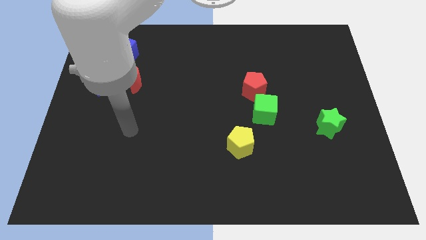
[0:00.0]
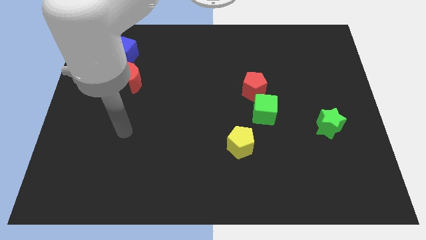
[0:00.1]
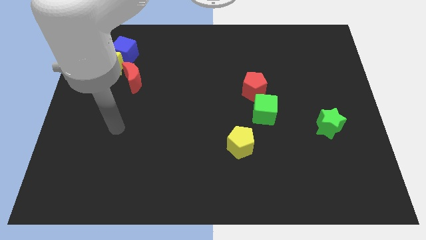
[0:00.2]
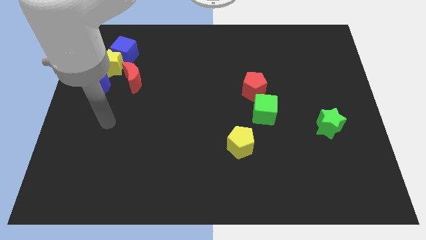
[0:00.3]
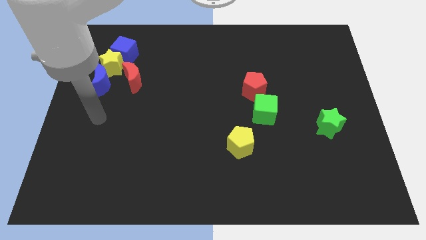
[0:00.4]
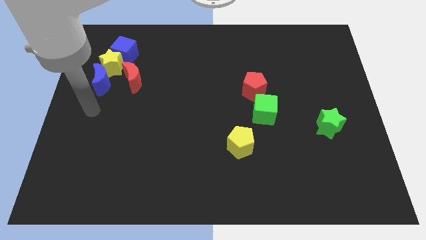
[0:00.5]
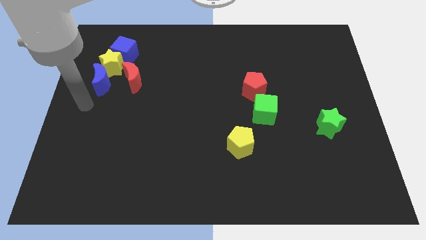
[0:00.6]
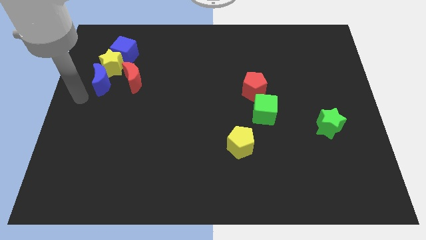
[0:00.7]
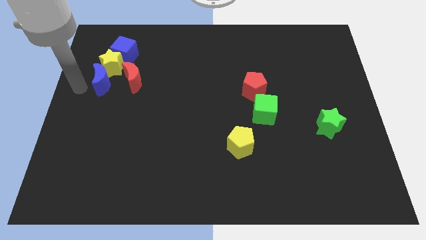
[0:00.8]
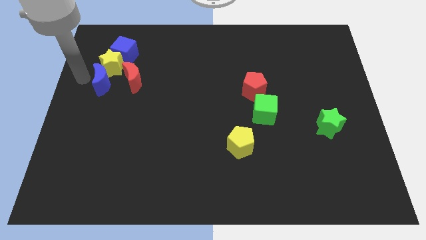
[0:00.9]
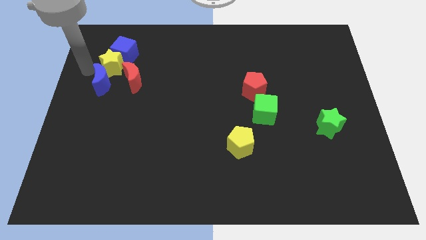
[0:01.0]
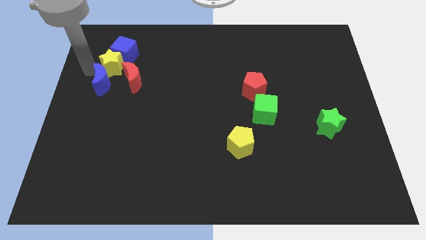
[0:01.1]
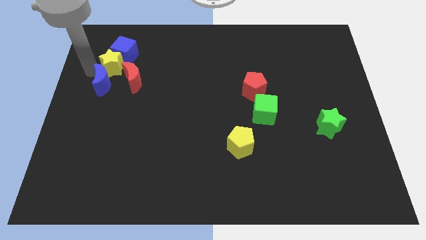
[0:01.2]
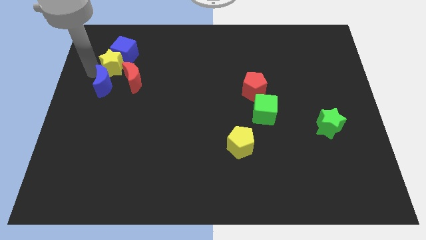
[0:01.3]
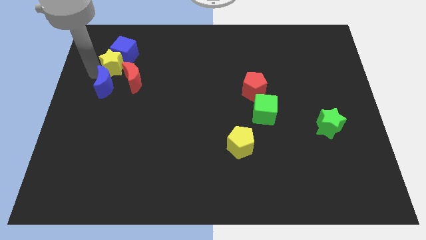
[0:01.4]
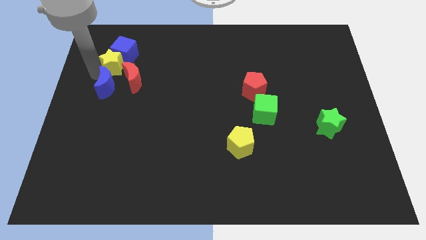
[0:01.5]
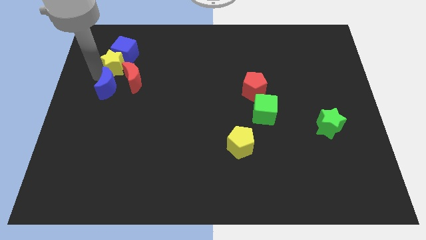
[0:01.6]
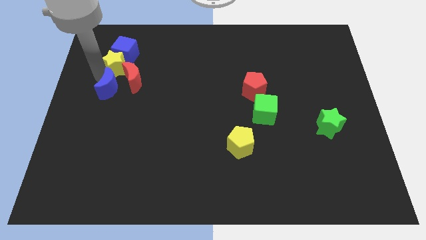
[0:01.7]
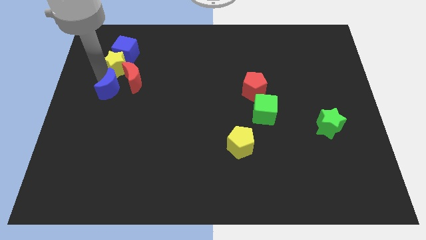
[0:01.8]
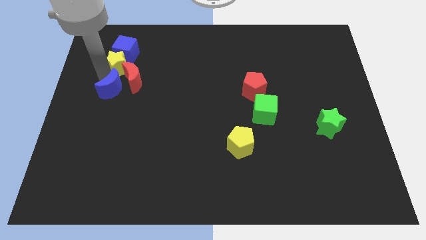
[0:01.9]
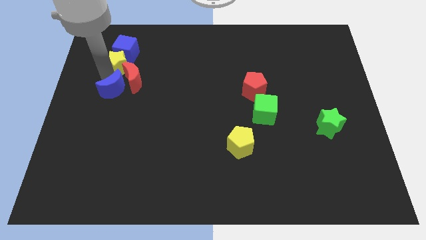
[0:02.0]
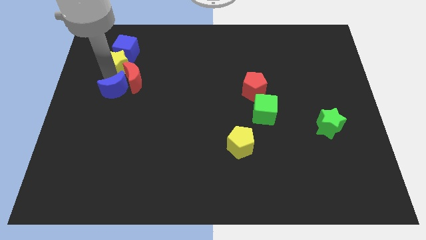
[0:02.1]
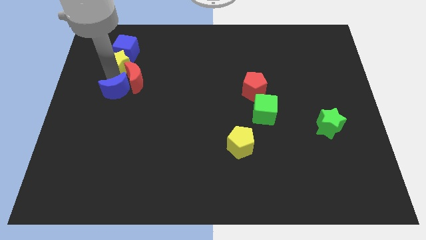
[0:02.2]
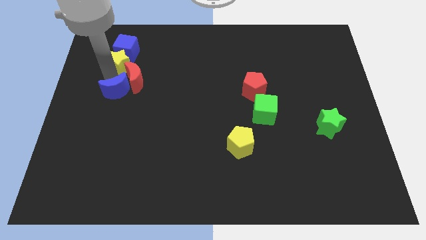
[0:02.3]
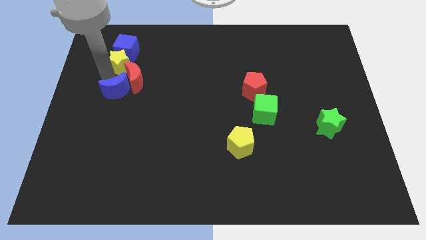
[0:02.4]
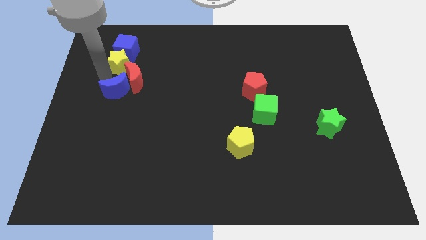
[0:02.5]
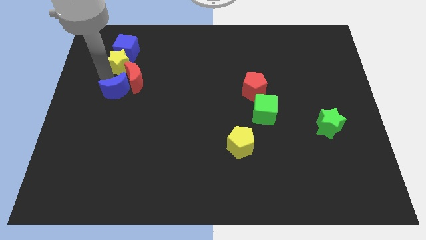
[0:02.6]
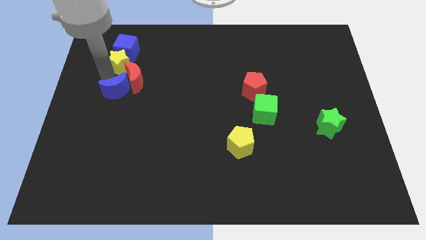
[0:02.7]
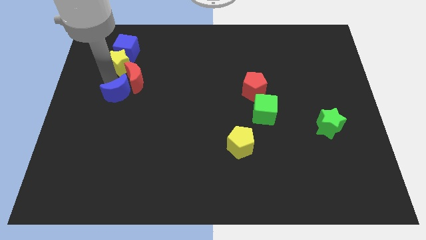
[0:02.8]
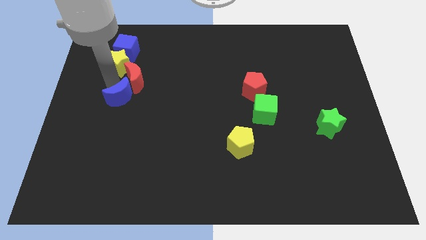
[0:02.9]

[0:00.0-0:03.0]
move the blue moon down and right diagonally a bit

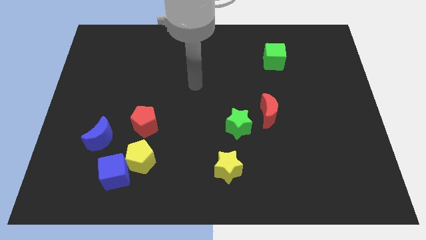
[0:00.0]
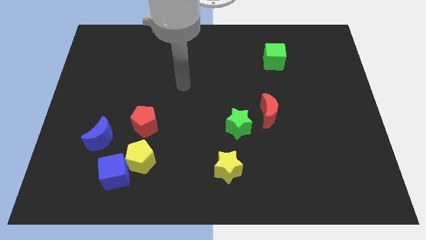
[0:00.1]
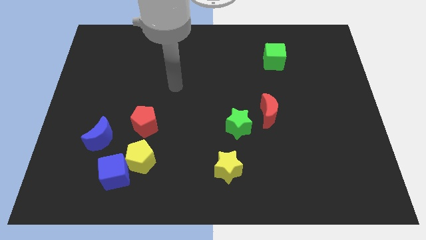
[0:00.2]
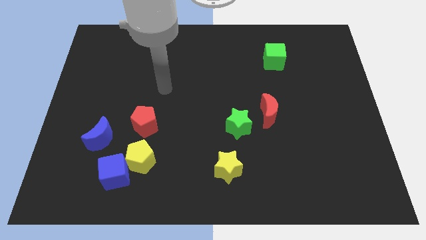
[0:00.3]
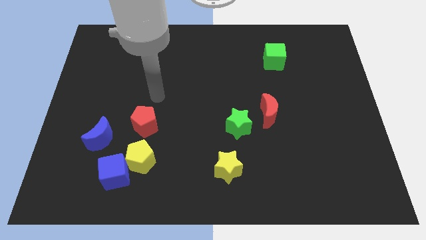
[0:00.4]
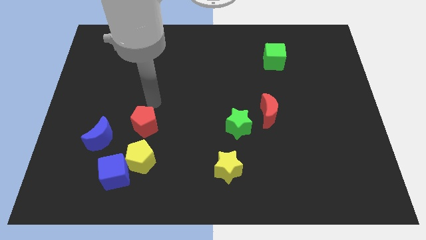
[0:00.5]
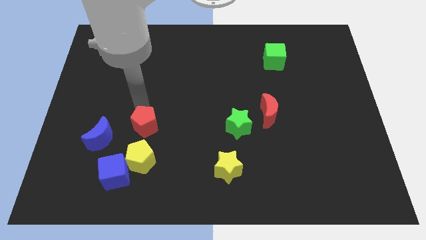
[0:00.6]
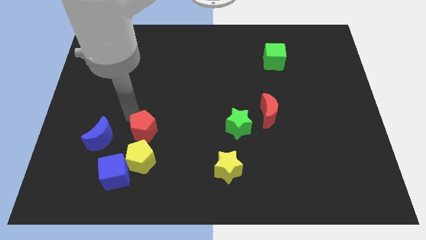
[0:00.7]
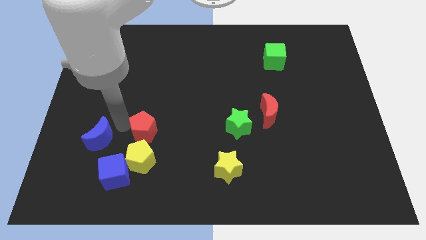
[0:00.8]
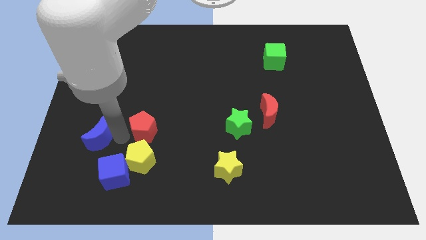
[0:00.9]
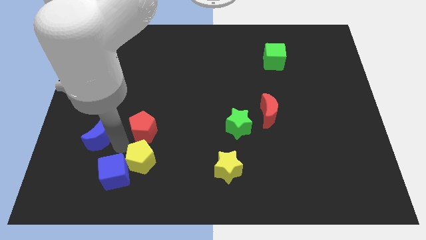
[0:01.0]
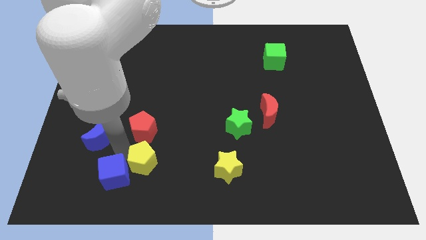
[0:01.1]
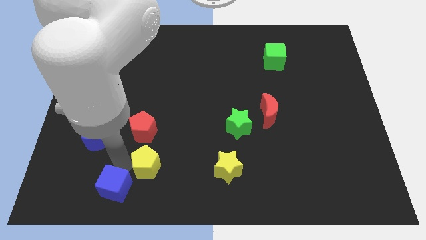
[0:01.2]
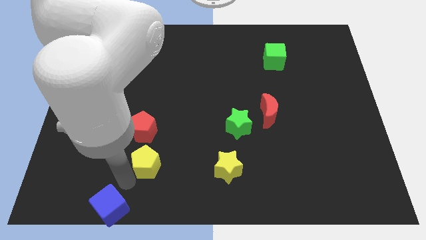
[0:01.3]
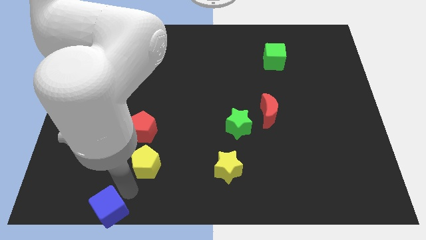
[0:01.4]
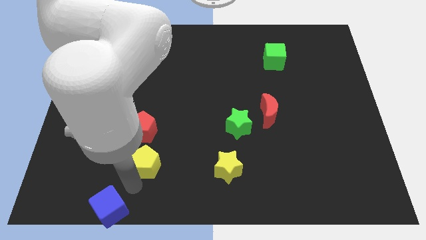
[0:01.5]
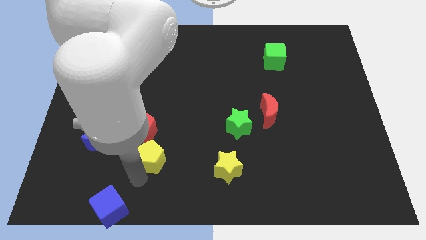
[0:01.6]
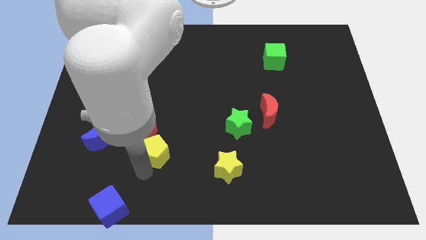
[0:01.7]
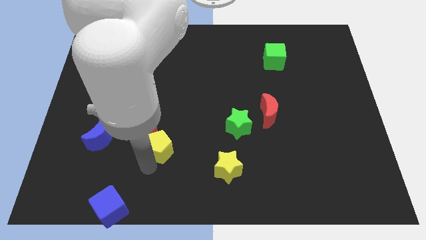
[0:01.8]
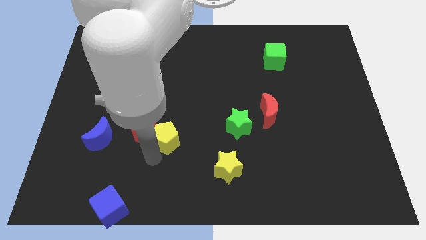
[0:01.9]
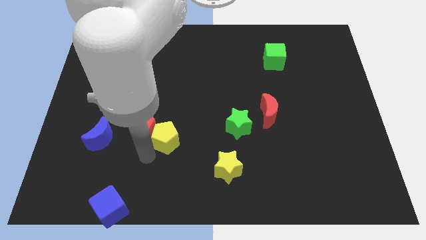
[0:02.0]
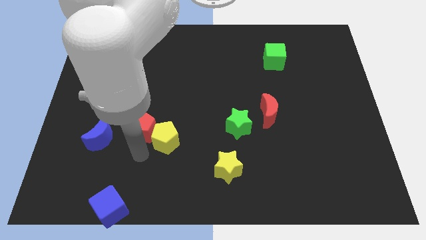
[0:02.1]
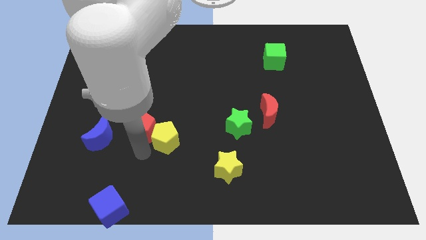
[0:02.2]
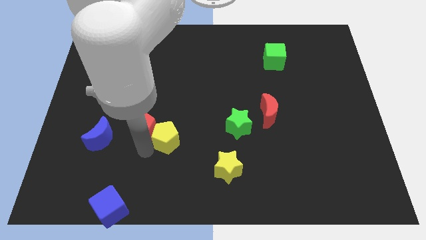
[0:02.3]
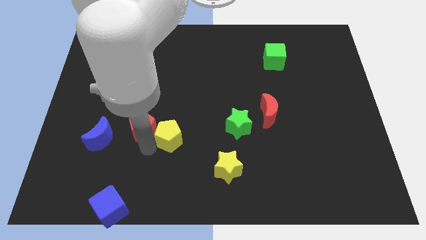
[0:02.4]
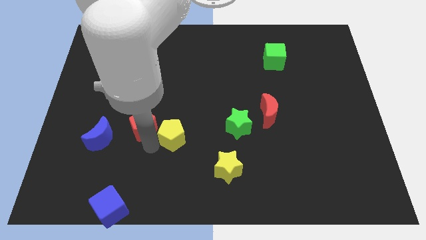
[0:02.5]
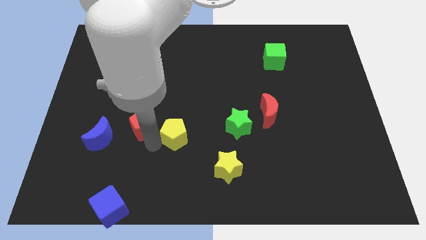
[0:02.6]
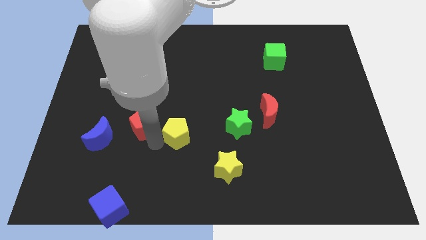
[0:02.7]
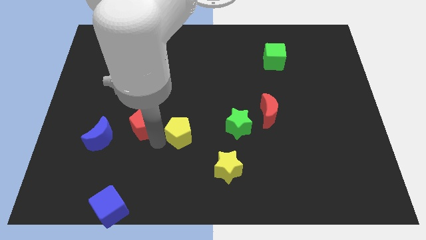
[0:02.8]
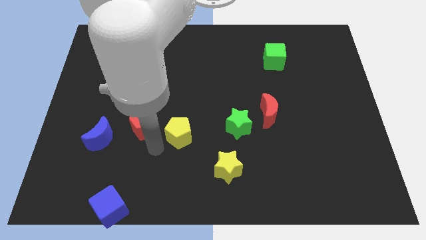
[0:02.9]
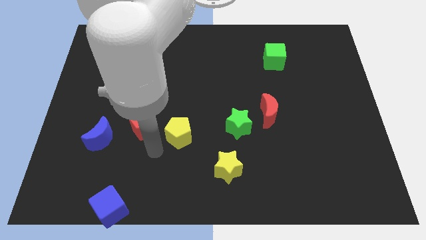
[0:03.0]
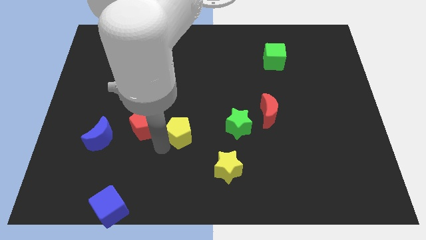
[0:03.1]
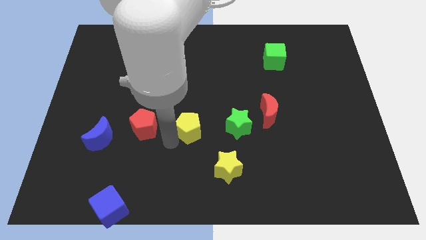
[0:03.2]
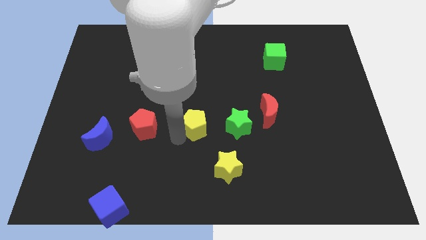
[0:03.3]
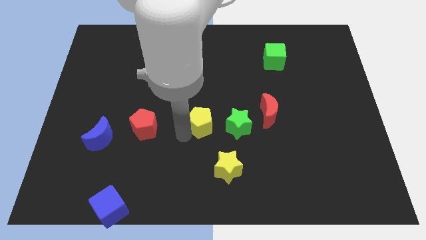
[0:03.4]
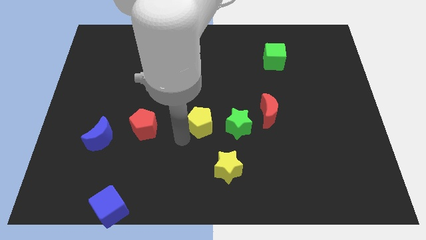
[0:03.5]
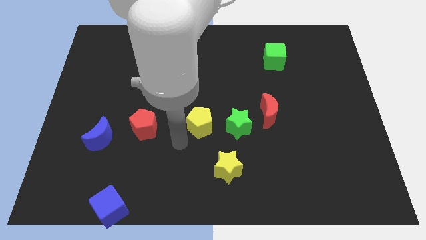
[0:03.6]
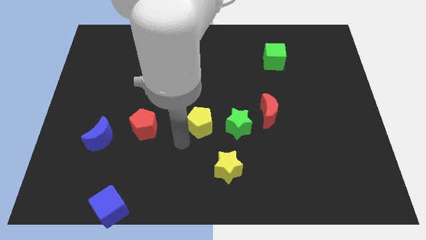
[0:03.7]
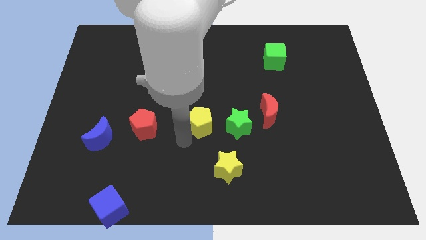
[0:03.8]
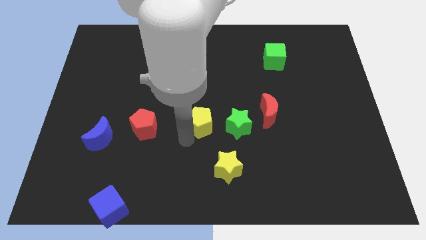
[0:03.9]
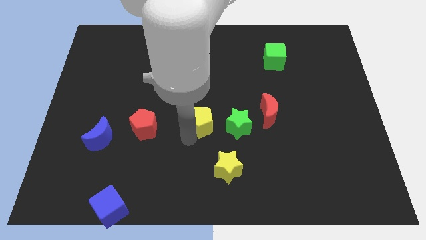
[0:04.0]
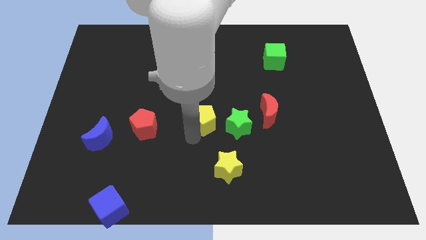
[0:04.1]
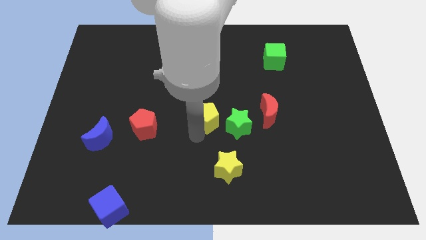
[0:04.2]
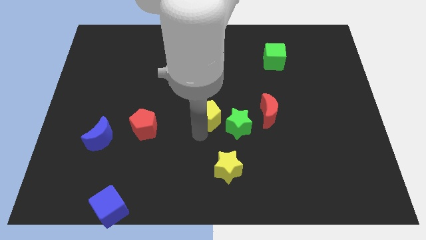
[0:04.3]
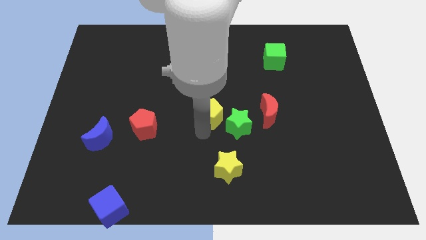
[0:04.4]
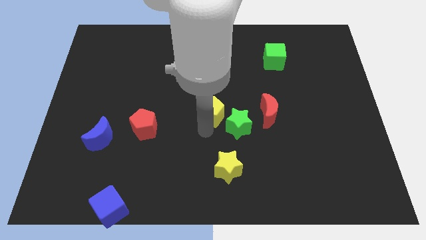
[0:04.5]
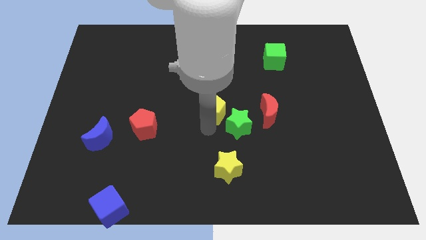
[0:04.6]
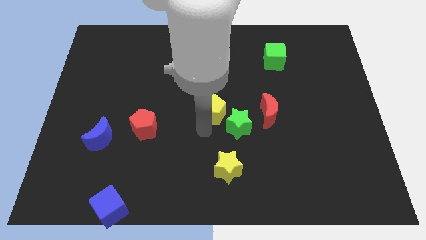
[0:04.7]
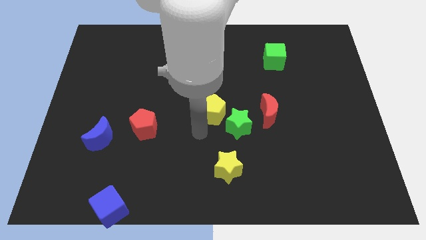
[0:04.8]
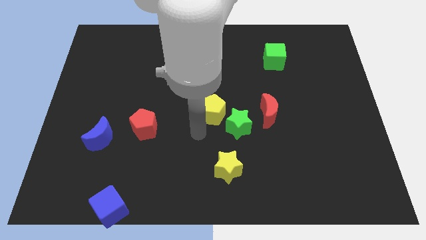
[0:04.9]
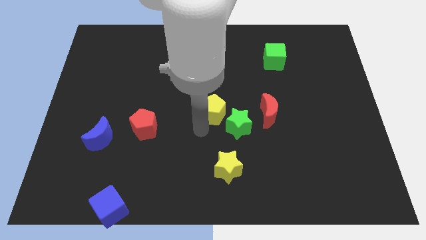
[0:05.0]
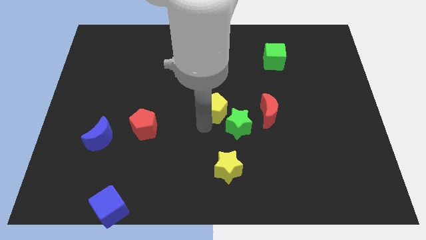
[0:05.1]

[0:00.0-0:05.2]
move the yellow pentagon upwards and then to the right
